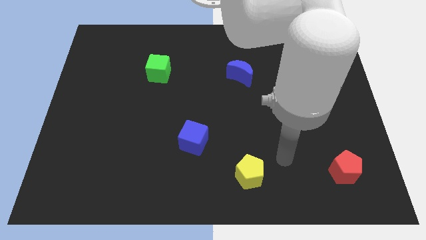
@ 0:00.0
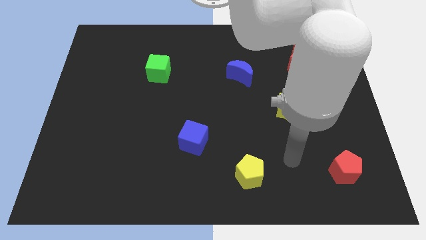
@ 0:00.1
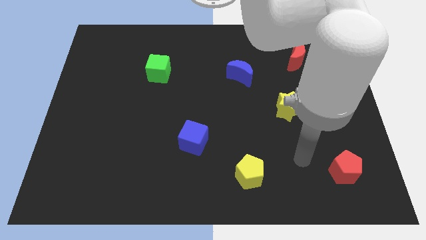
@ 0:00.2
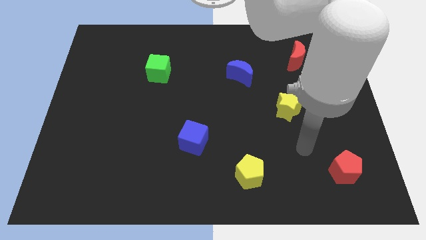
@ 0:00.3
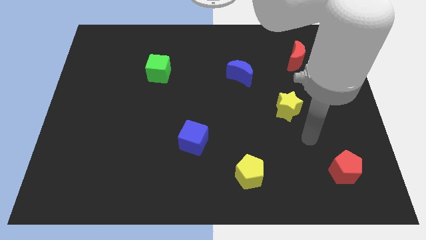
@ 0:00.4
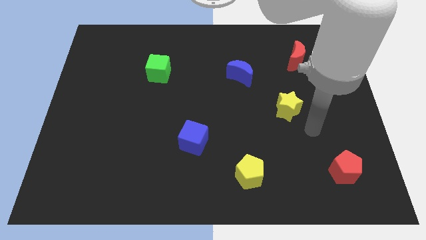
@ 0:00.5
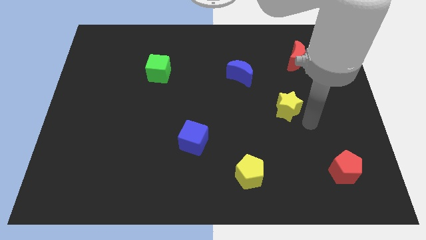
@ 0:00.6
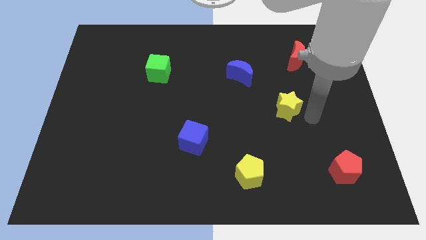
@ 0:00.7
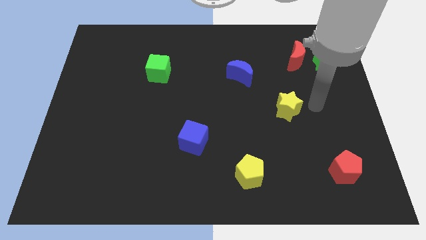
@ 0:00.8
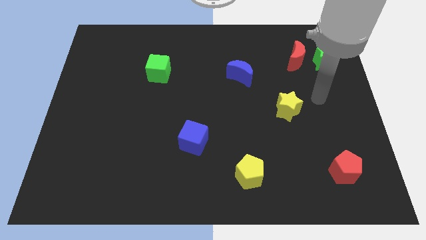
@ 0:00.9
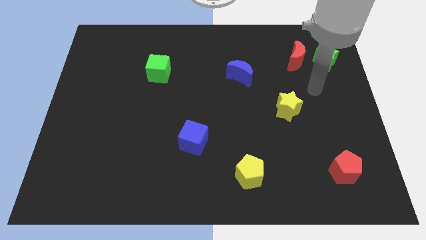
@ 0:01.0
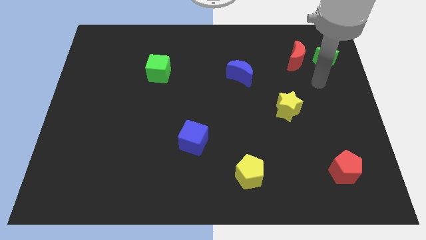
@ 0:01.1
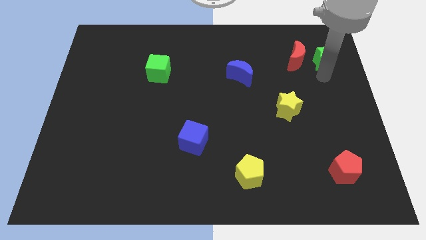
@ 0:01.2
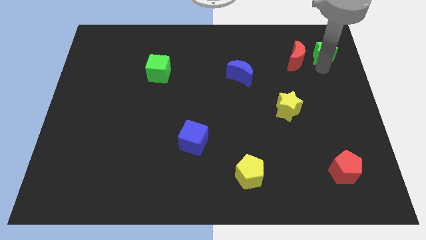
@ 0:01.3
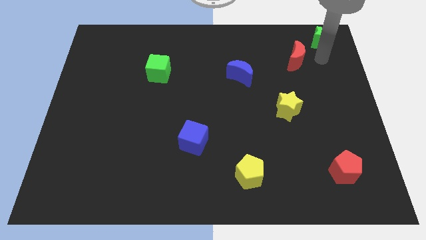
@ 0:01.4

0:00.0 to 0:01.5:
pull the red moon apart from the green star

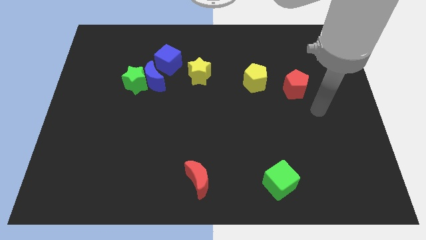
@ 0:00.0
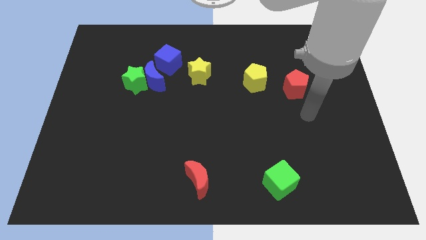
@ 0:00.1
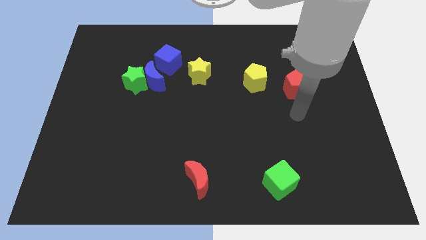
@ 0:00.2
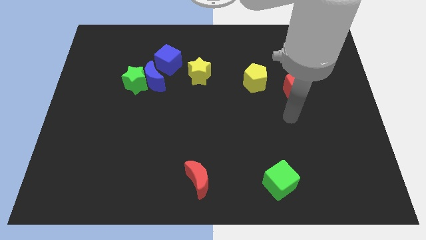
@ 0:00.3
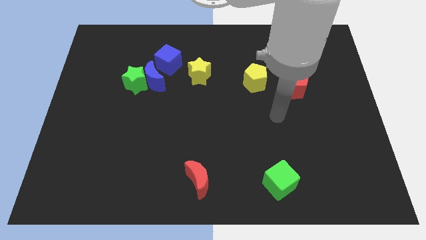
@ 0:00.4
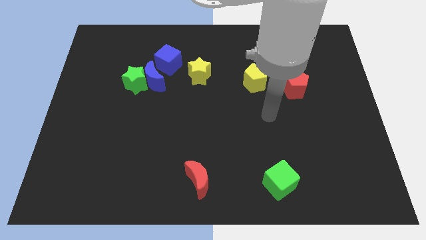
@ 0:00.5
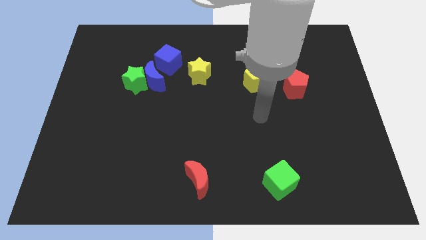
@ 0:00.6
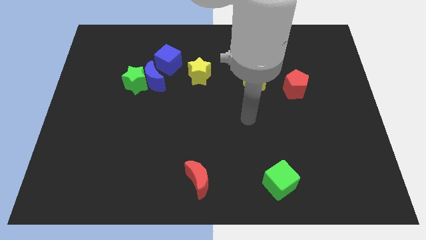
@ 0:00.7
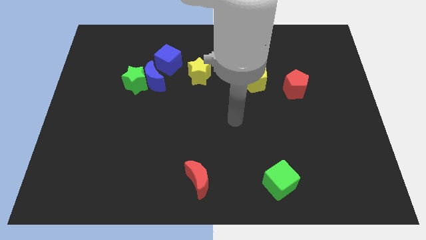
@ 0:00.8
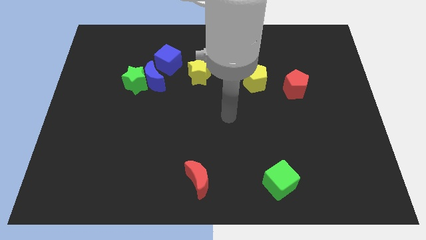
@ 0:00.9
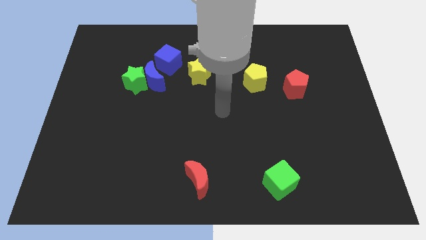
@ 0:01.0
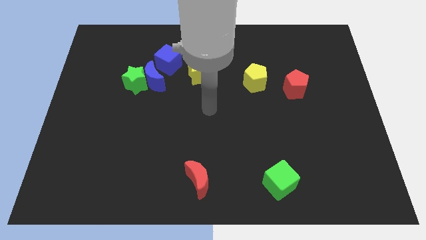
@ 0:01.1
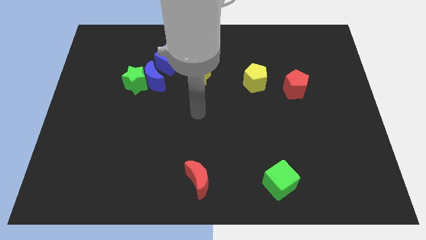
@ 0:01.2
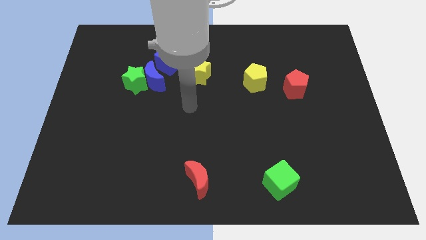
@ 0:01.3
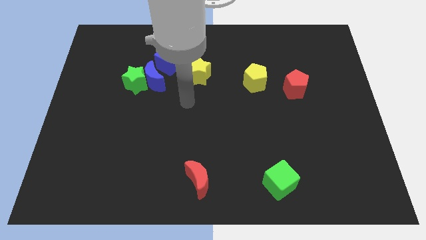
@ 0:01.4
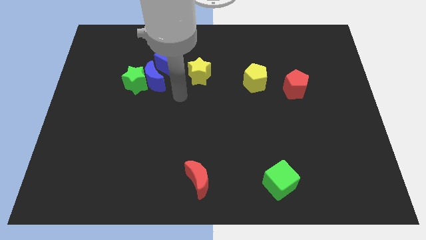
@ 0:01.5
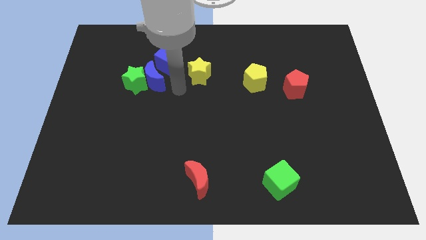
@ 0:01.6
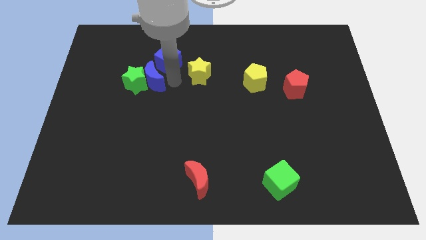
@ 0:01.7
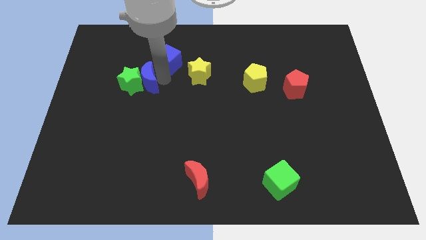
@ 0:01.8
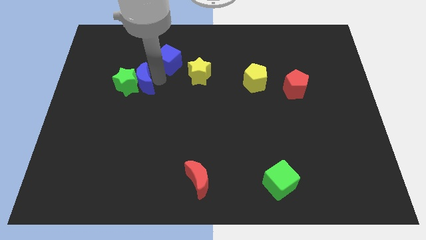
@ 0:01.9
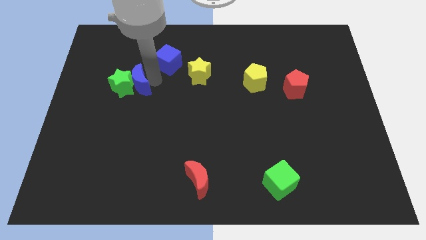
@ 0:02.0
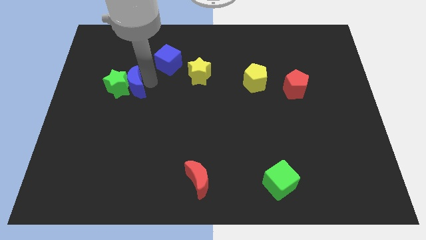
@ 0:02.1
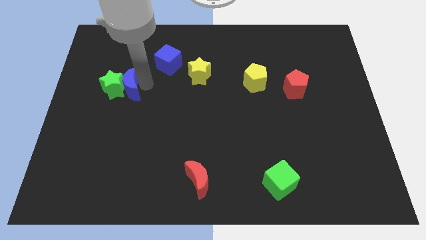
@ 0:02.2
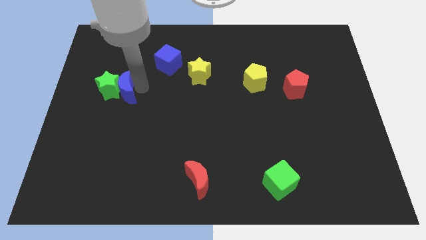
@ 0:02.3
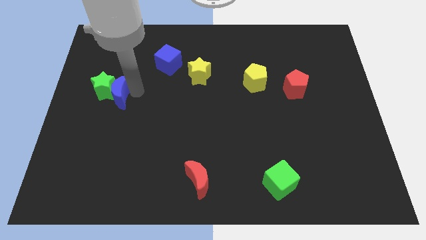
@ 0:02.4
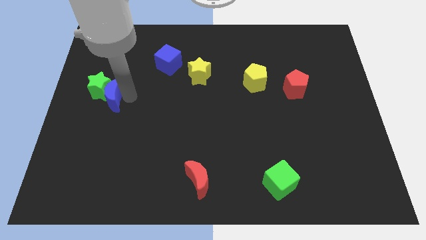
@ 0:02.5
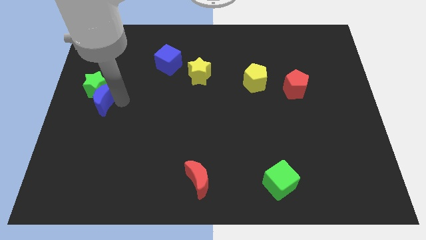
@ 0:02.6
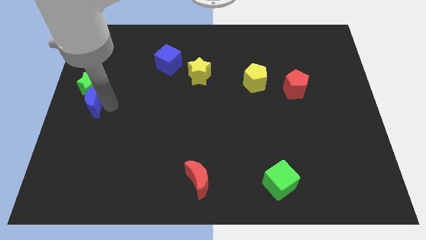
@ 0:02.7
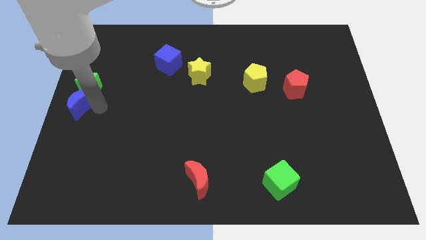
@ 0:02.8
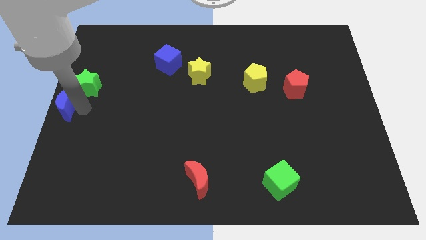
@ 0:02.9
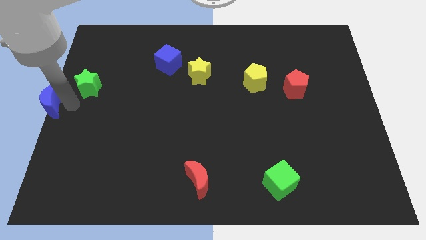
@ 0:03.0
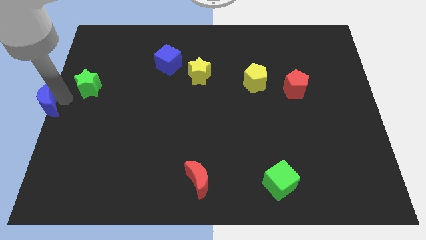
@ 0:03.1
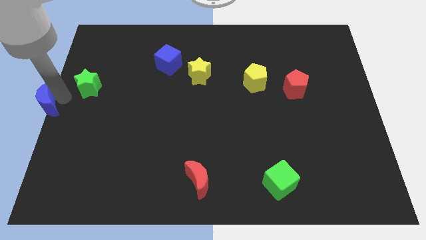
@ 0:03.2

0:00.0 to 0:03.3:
move the green star away from the blue moon

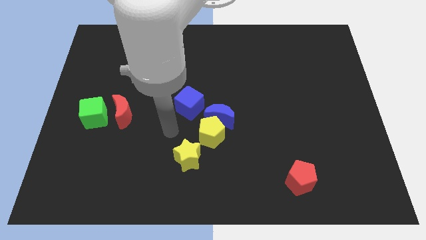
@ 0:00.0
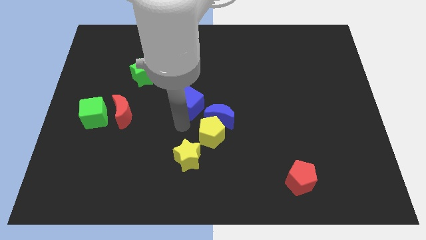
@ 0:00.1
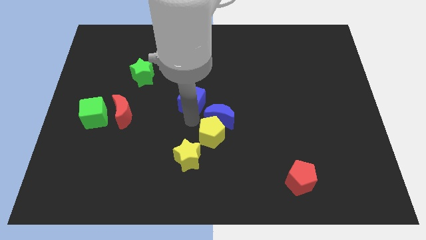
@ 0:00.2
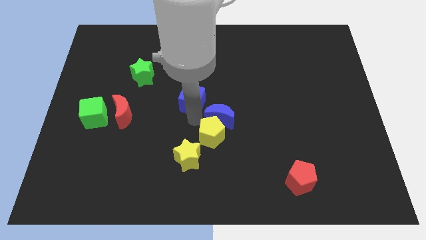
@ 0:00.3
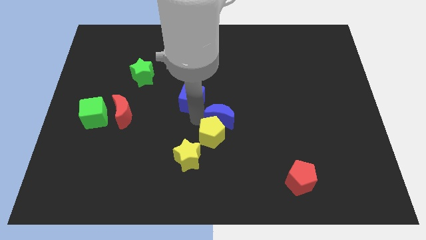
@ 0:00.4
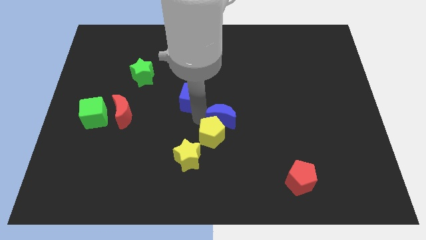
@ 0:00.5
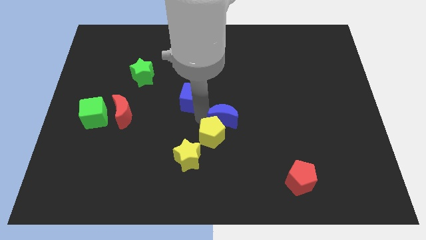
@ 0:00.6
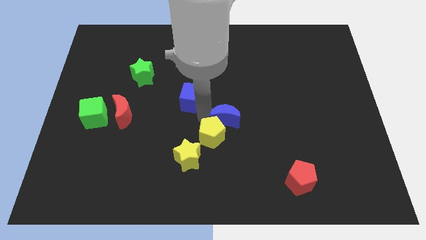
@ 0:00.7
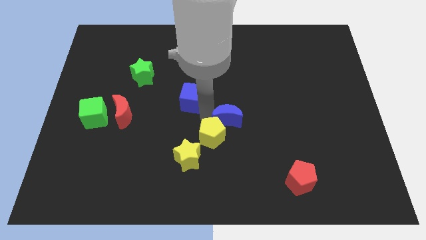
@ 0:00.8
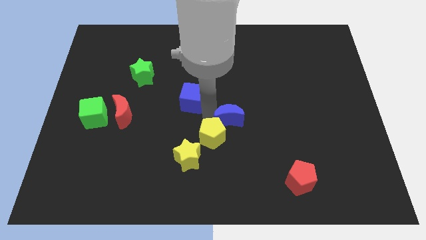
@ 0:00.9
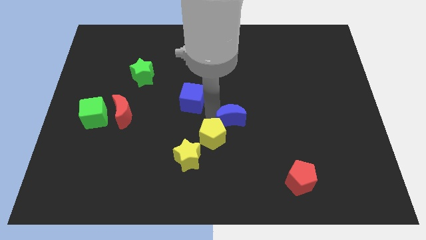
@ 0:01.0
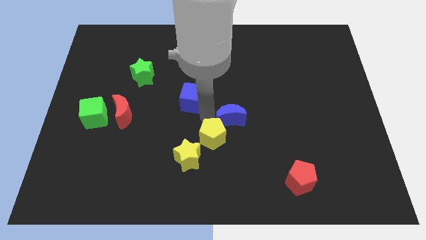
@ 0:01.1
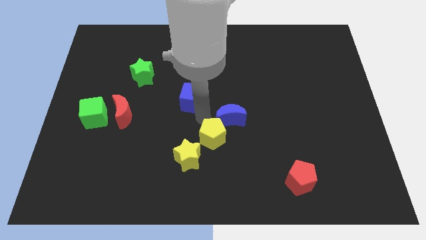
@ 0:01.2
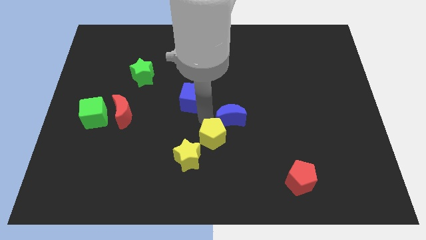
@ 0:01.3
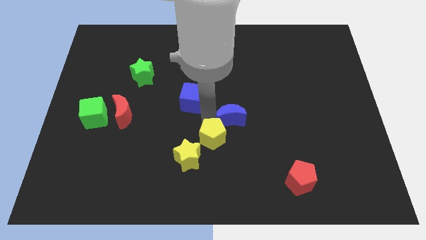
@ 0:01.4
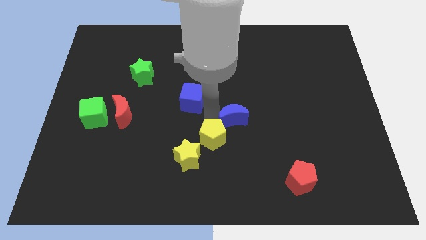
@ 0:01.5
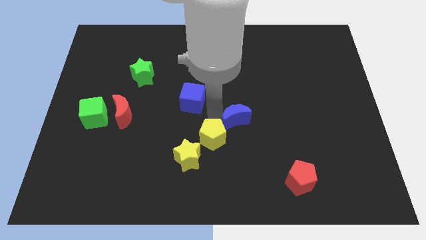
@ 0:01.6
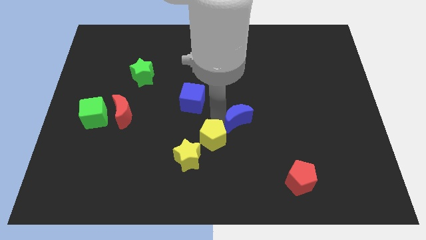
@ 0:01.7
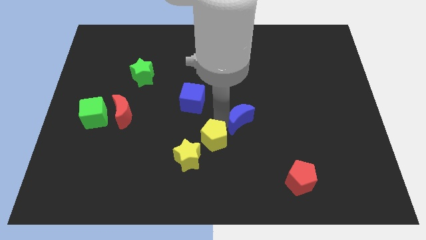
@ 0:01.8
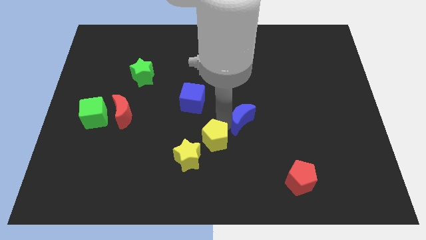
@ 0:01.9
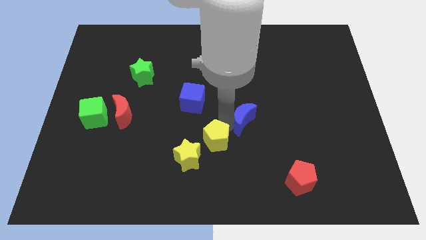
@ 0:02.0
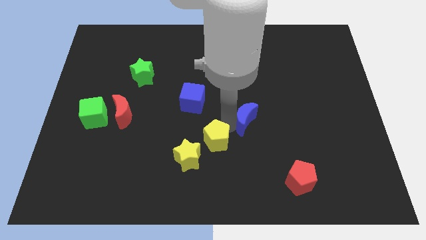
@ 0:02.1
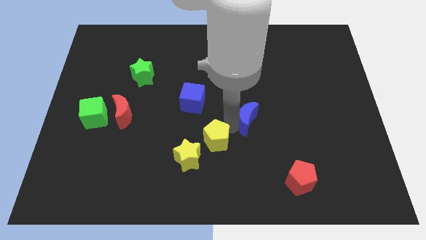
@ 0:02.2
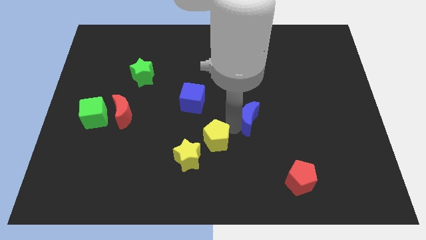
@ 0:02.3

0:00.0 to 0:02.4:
pull the blue moon apart from the yellow pentagon and blue cube

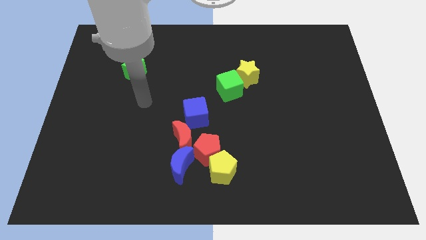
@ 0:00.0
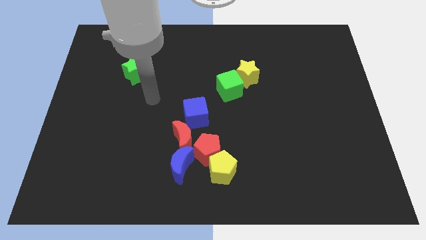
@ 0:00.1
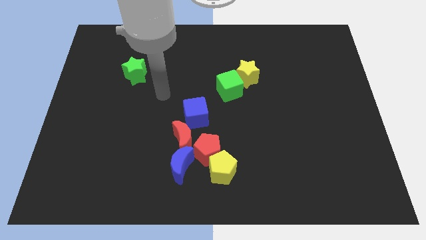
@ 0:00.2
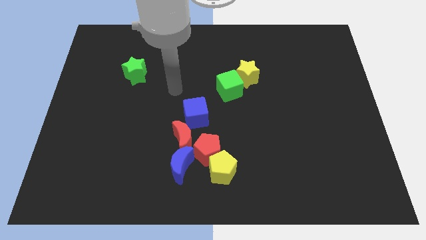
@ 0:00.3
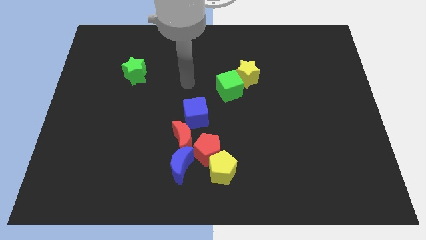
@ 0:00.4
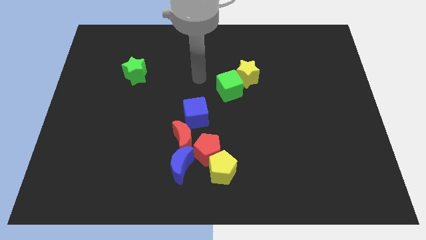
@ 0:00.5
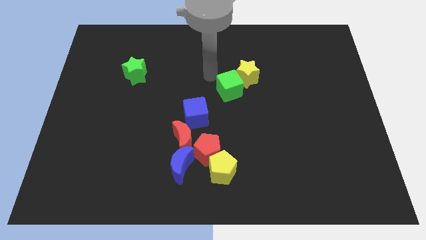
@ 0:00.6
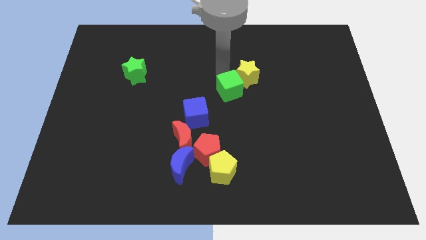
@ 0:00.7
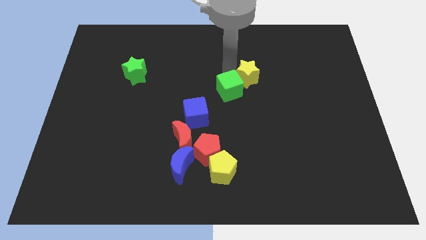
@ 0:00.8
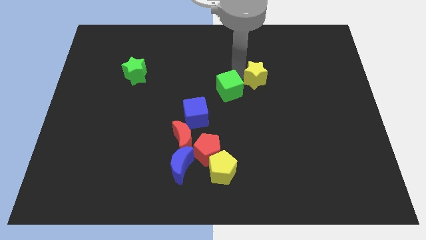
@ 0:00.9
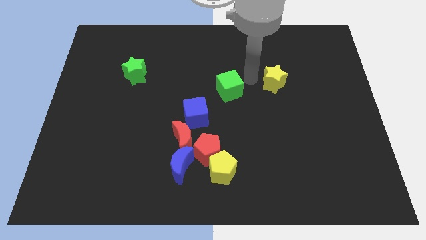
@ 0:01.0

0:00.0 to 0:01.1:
move the green cube away from the yellow star

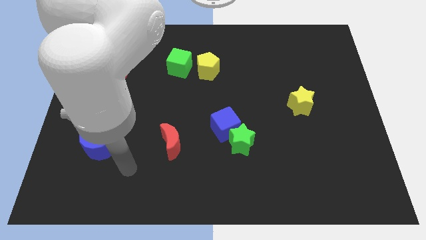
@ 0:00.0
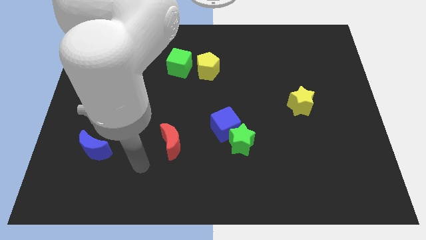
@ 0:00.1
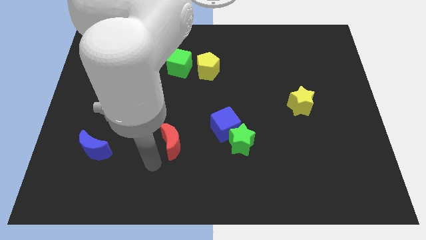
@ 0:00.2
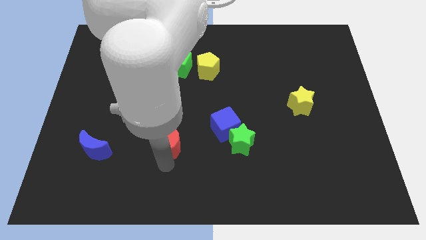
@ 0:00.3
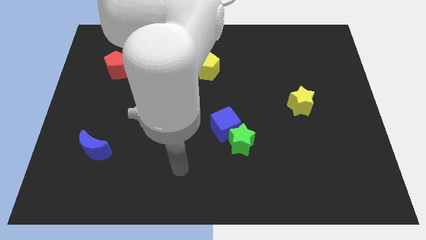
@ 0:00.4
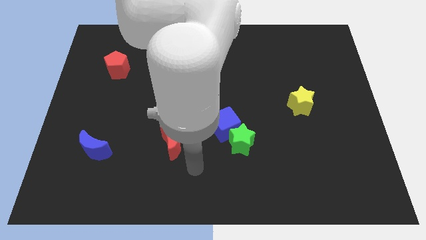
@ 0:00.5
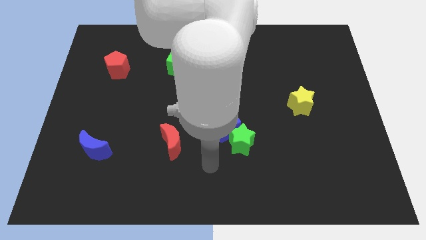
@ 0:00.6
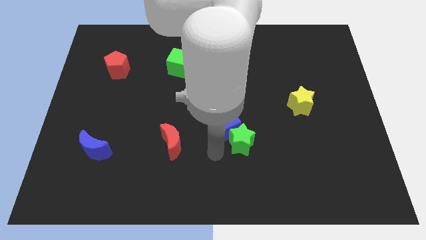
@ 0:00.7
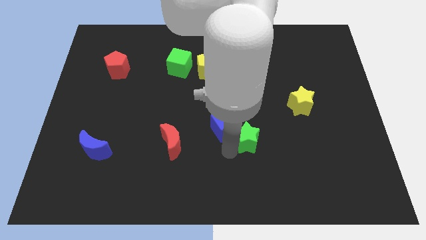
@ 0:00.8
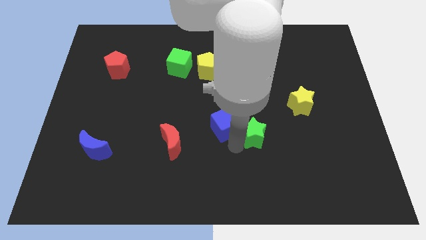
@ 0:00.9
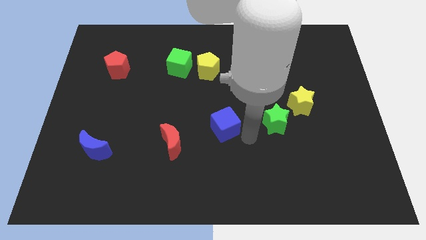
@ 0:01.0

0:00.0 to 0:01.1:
pull the blue cube apart from the green star
